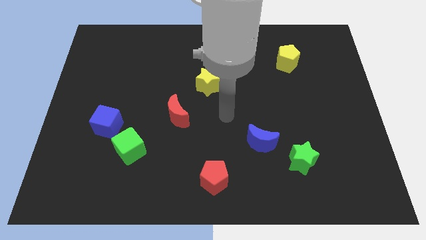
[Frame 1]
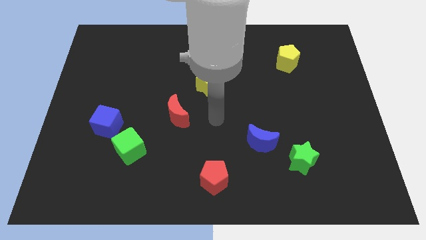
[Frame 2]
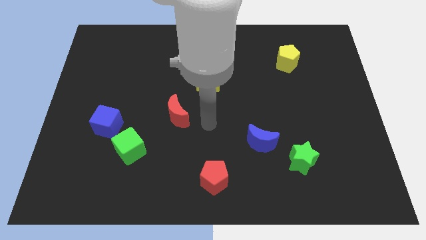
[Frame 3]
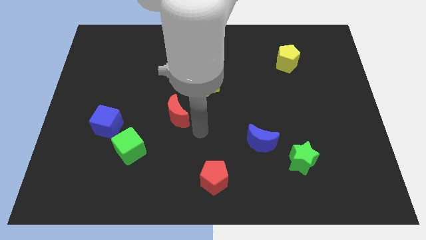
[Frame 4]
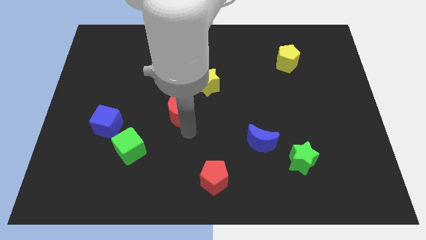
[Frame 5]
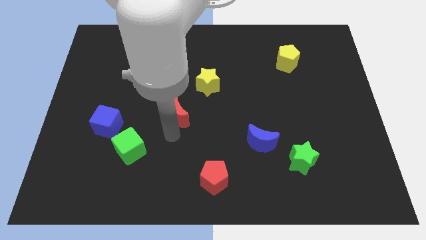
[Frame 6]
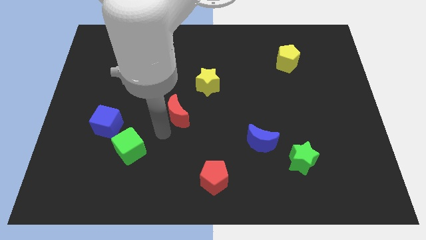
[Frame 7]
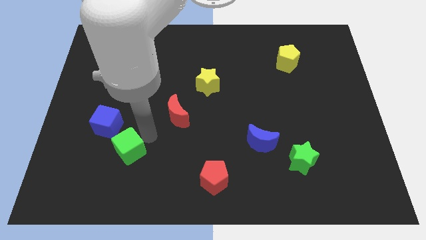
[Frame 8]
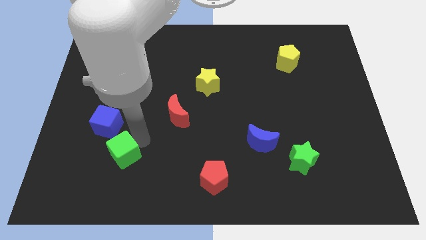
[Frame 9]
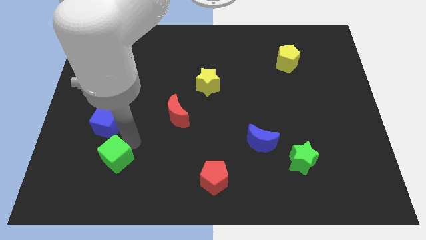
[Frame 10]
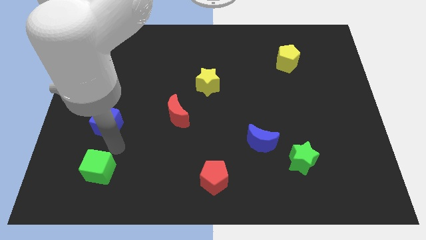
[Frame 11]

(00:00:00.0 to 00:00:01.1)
separate the blue cube from the green cube

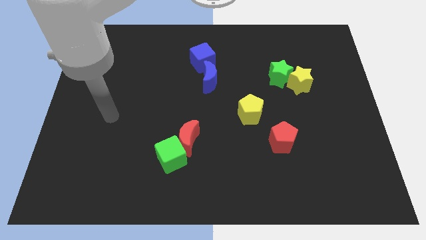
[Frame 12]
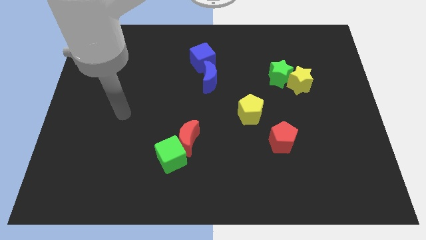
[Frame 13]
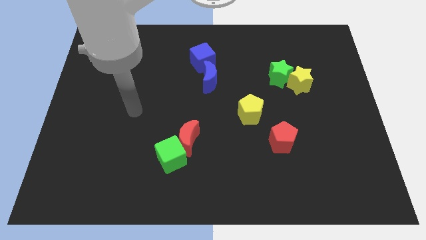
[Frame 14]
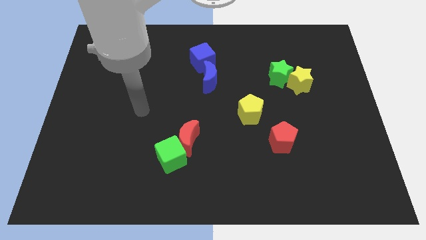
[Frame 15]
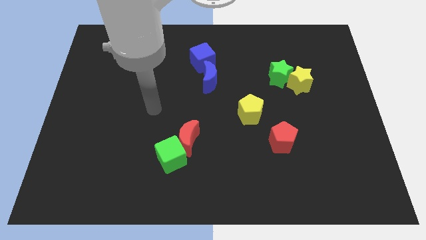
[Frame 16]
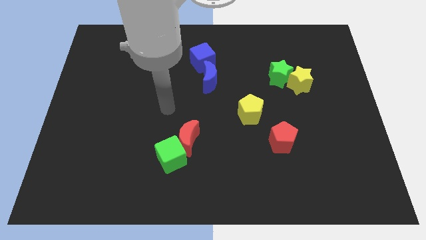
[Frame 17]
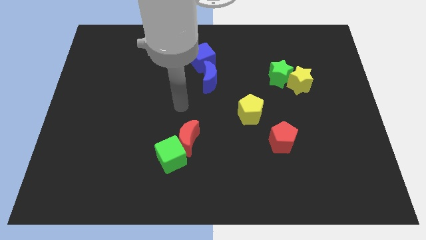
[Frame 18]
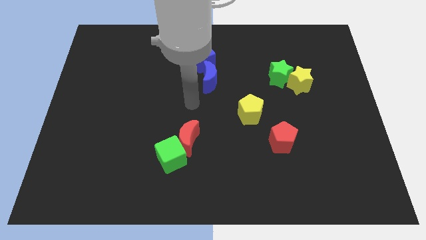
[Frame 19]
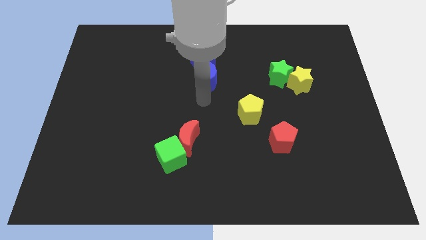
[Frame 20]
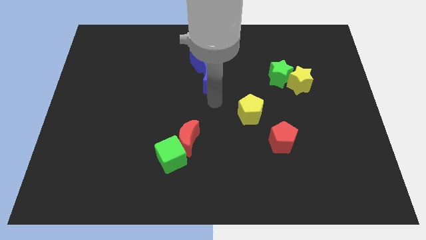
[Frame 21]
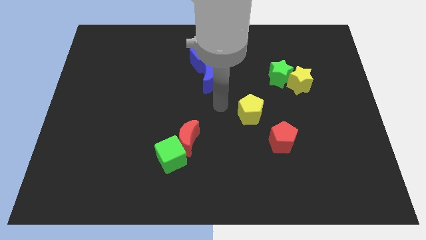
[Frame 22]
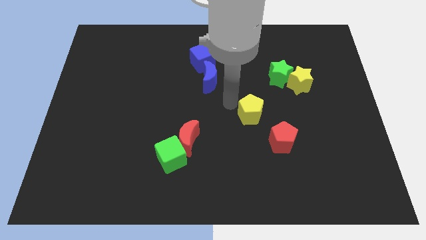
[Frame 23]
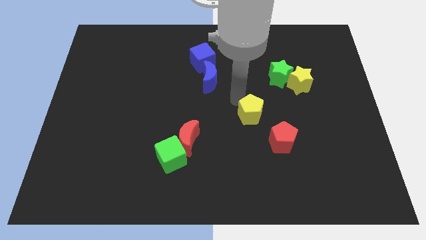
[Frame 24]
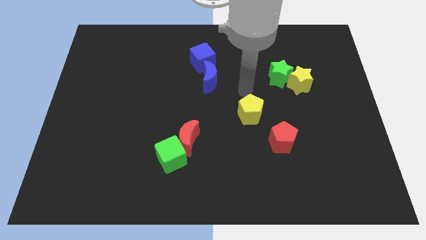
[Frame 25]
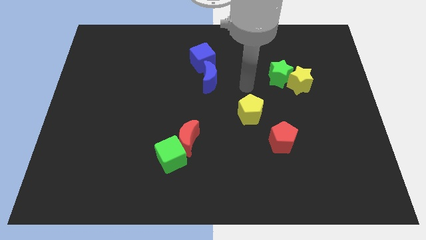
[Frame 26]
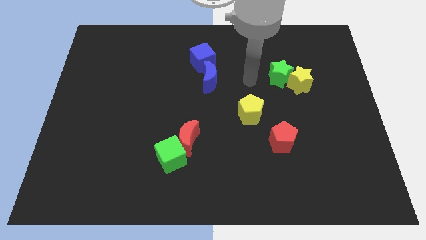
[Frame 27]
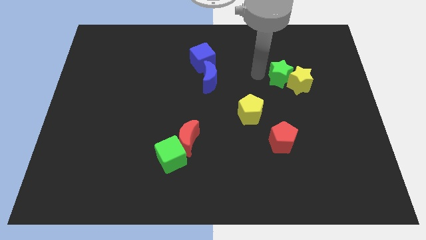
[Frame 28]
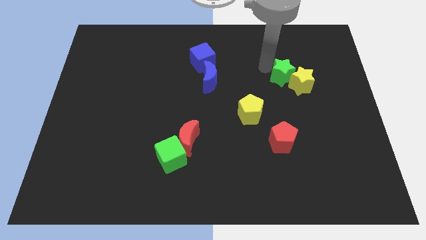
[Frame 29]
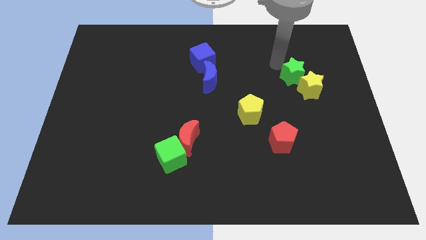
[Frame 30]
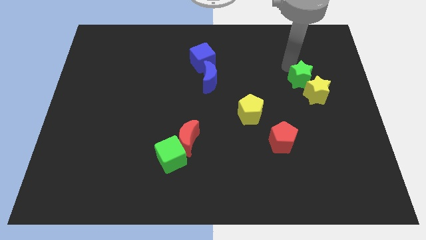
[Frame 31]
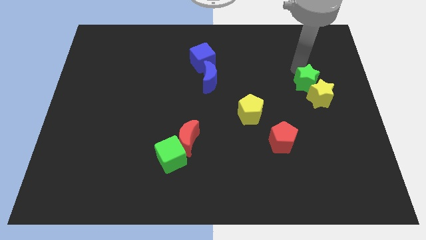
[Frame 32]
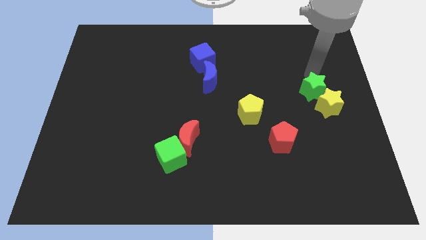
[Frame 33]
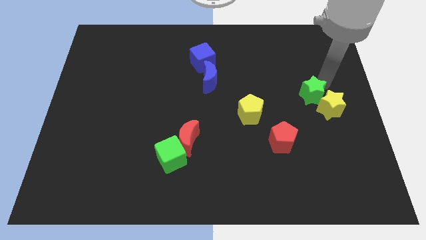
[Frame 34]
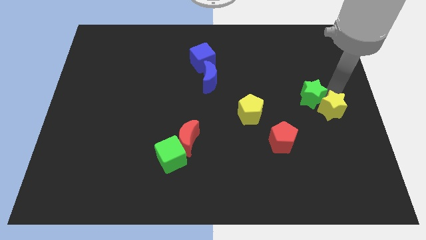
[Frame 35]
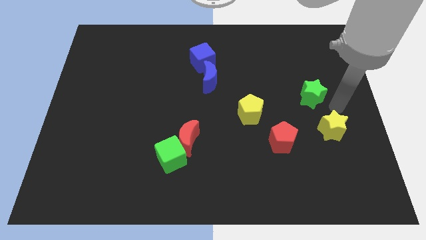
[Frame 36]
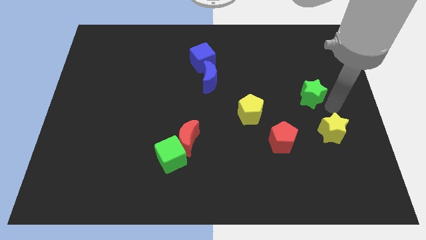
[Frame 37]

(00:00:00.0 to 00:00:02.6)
pull the green star apart from the yellow star

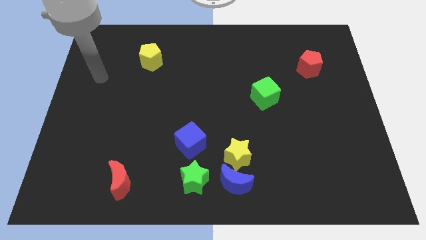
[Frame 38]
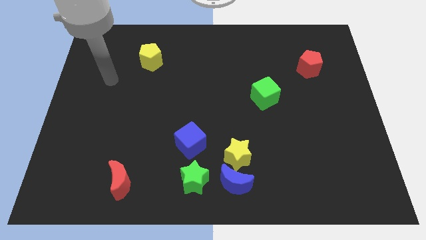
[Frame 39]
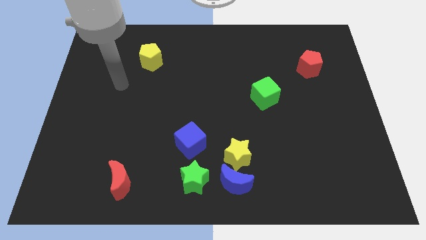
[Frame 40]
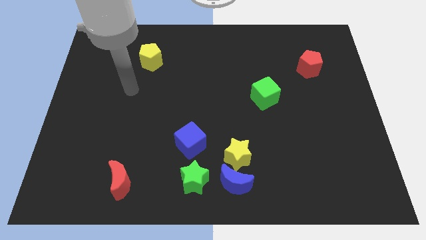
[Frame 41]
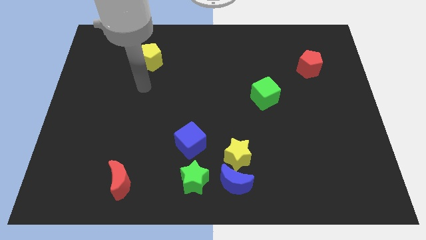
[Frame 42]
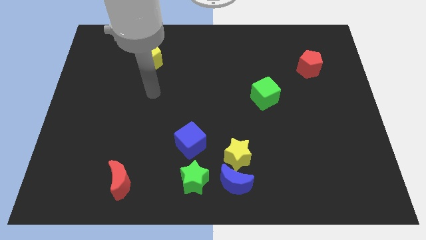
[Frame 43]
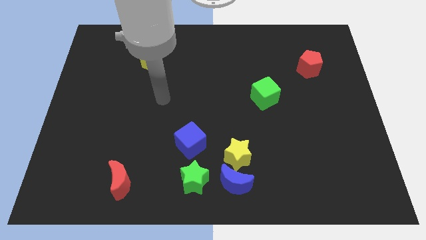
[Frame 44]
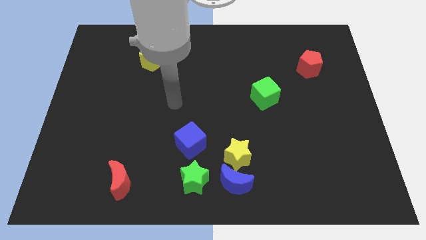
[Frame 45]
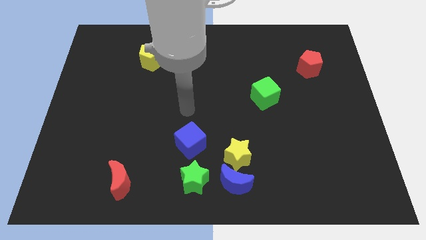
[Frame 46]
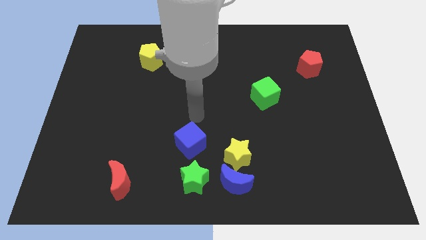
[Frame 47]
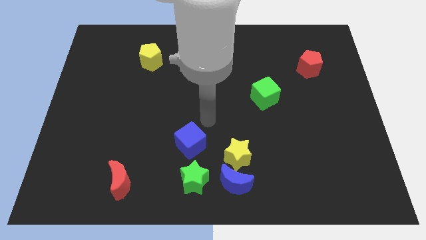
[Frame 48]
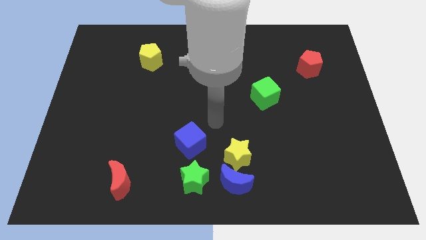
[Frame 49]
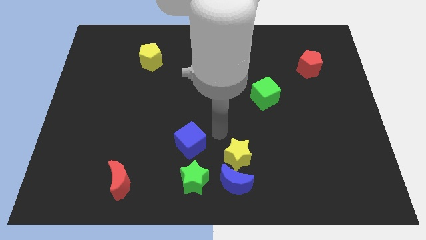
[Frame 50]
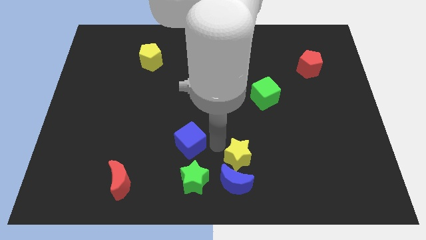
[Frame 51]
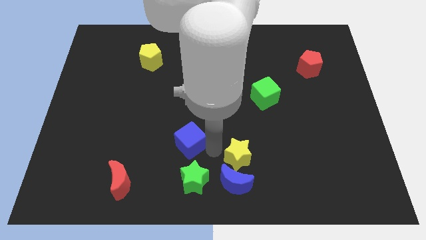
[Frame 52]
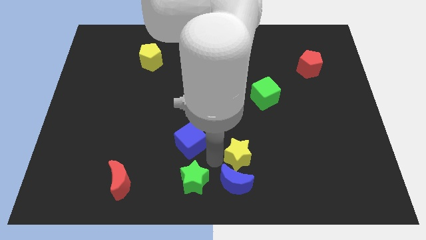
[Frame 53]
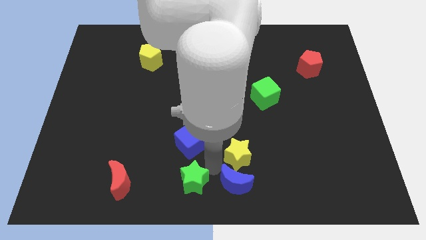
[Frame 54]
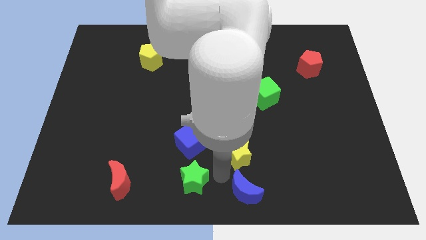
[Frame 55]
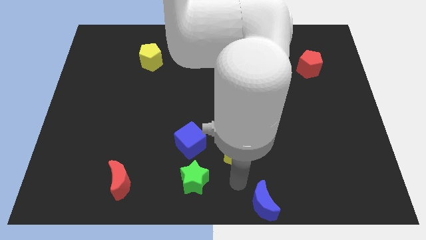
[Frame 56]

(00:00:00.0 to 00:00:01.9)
separate the yellow star from the blue moon

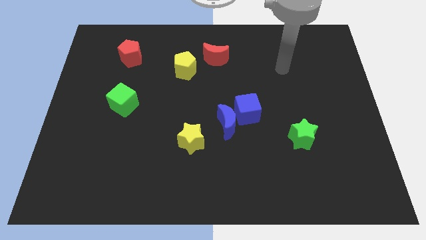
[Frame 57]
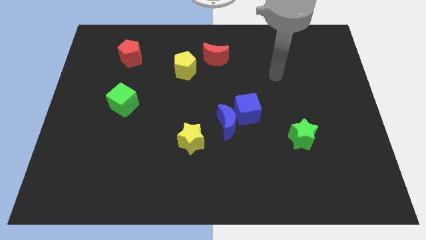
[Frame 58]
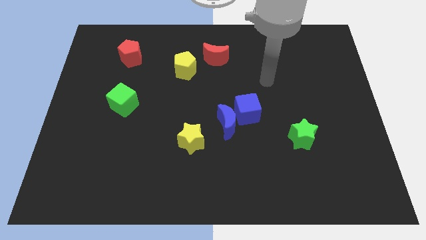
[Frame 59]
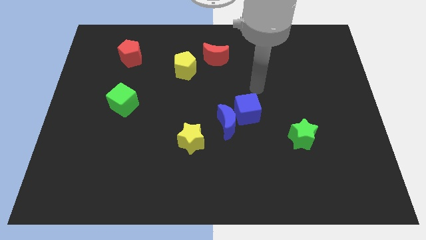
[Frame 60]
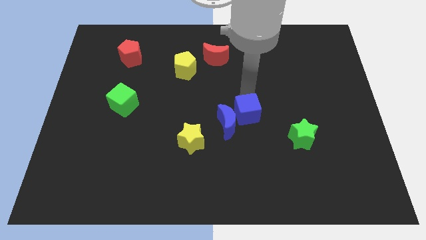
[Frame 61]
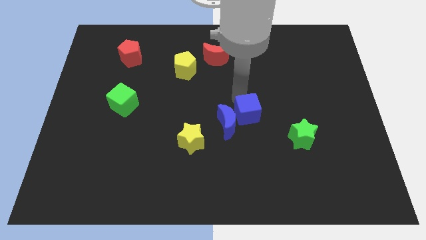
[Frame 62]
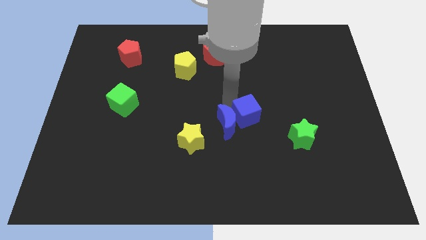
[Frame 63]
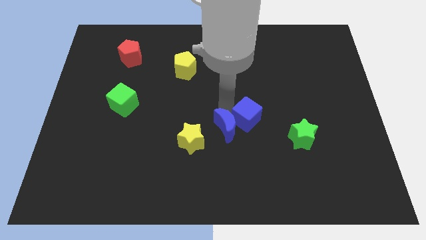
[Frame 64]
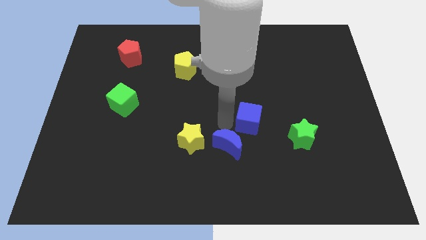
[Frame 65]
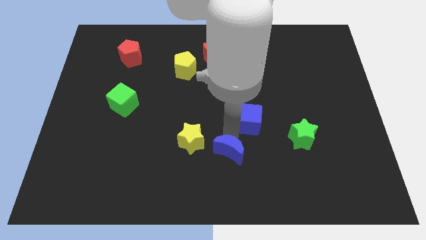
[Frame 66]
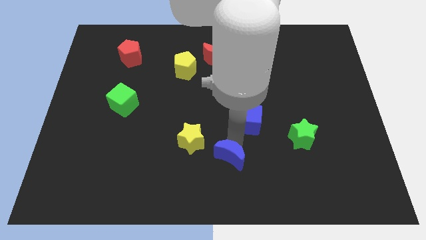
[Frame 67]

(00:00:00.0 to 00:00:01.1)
separate the blue cube from the blue moon

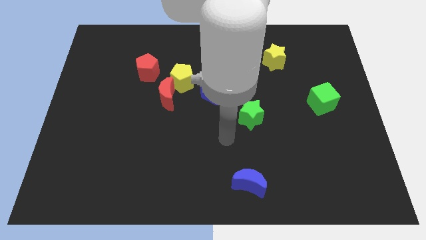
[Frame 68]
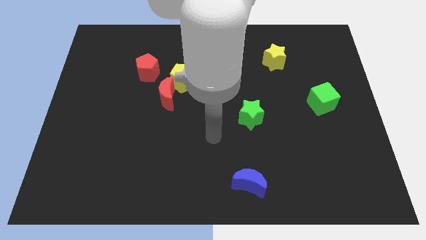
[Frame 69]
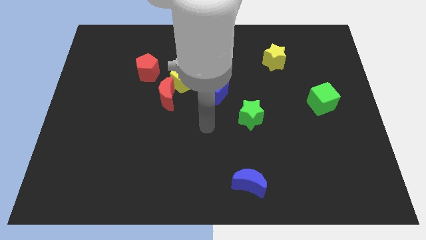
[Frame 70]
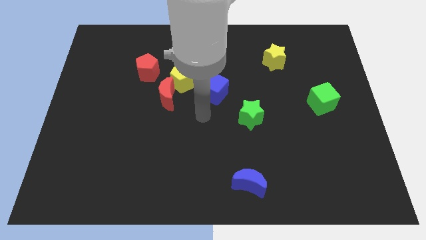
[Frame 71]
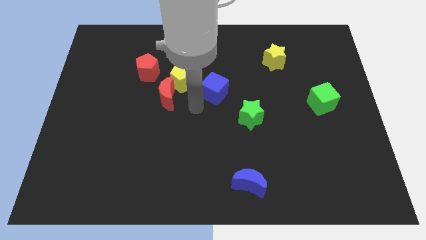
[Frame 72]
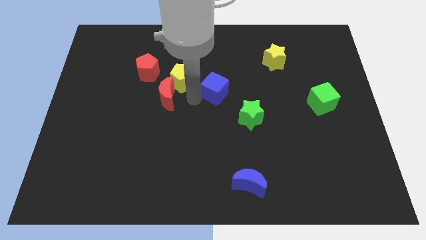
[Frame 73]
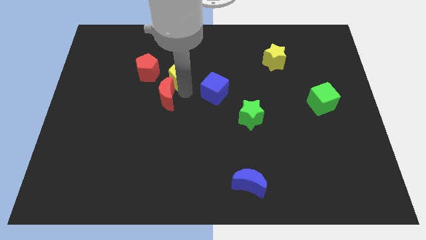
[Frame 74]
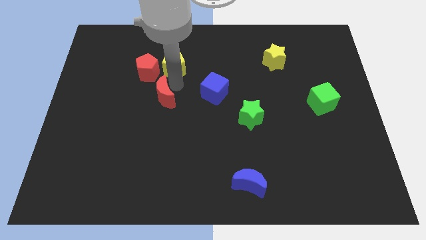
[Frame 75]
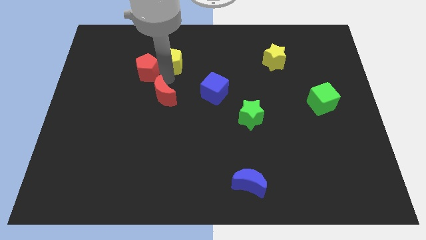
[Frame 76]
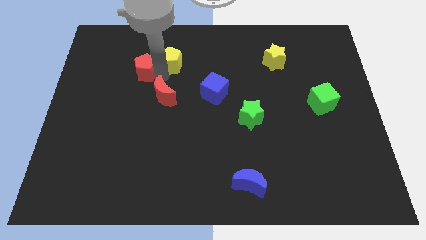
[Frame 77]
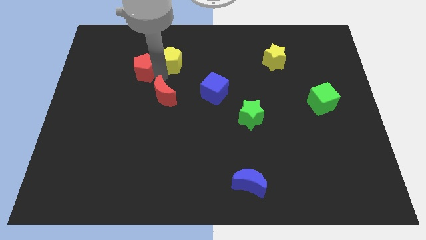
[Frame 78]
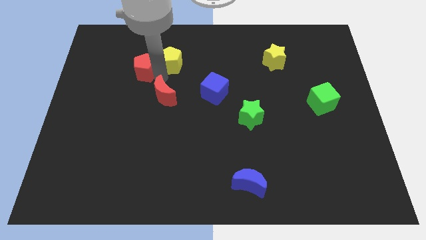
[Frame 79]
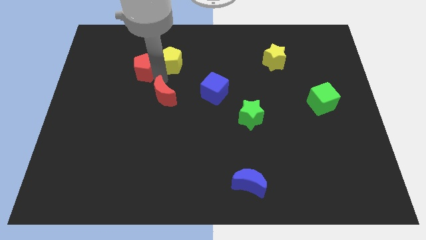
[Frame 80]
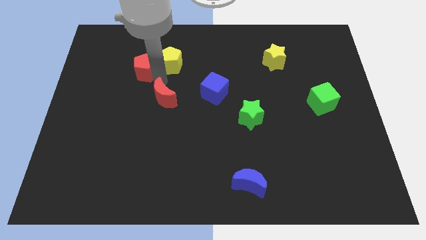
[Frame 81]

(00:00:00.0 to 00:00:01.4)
move the red moon away from the yellow pentagon and red pentagon

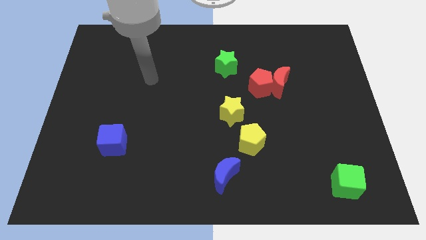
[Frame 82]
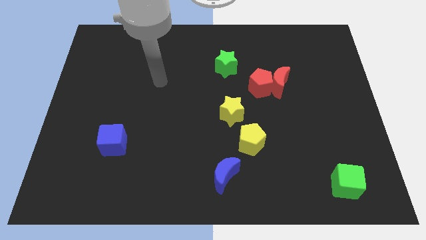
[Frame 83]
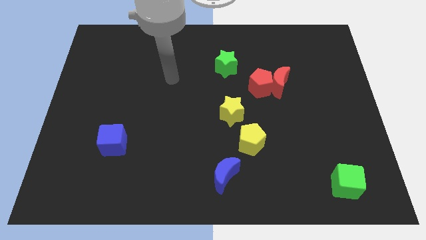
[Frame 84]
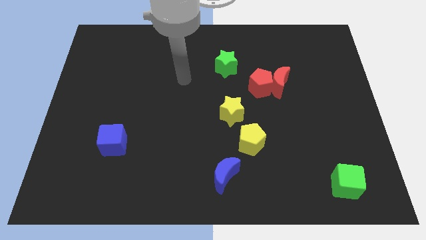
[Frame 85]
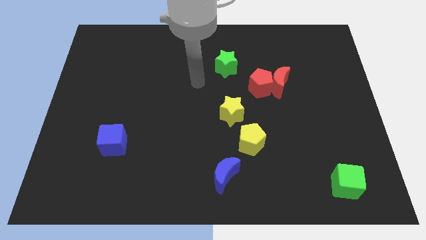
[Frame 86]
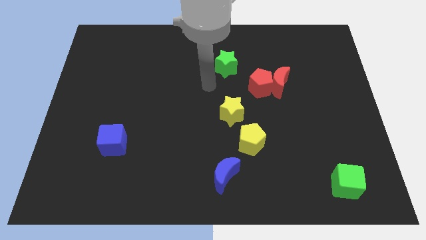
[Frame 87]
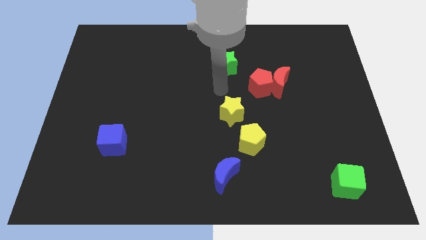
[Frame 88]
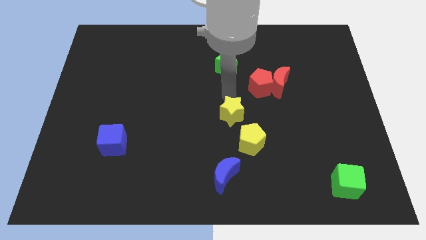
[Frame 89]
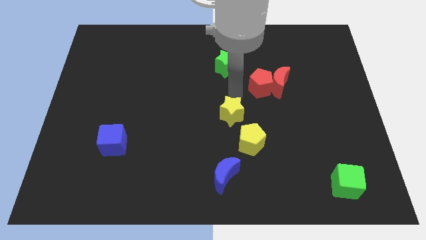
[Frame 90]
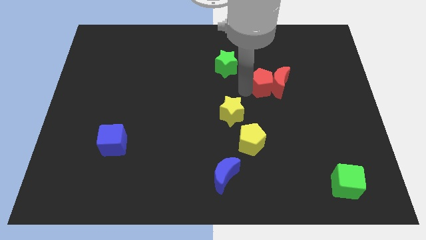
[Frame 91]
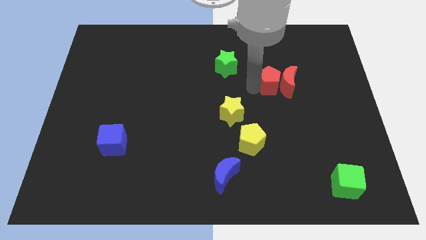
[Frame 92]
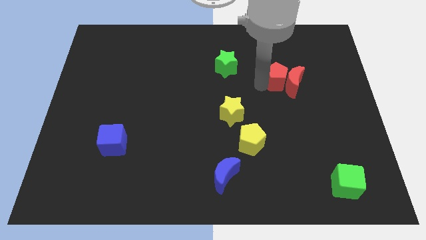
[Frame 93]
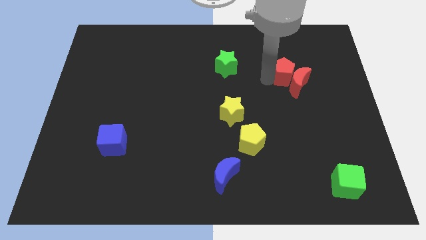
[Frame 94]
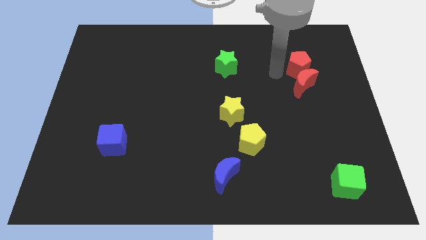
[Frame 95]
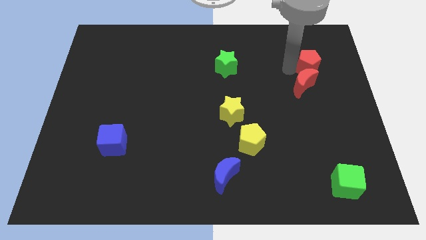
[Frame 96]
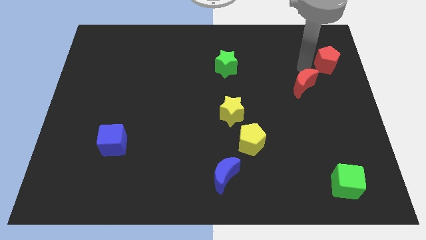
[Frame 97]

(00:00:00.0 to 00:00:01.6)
separate the red moon from the red pentagon
